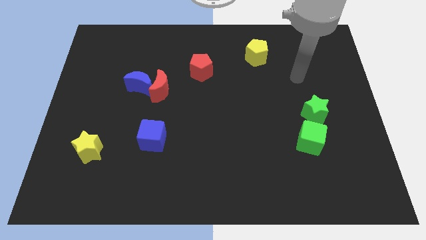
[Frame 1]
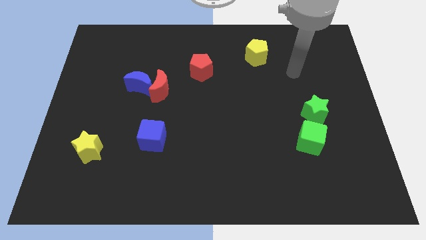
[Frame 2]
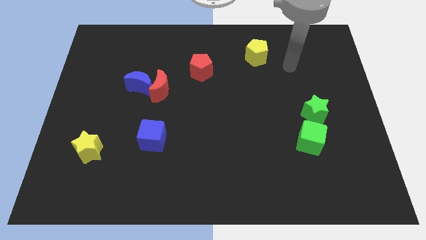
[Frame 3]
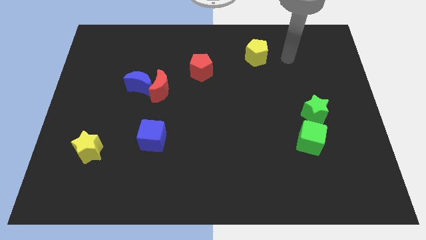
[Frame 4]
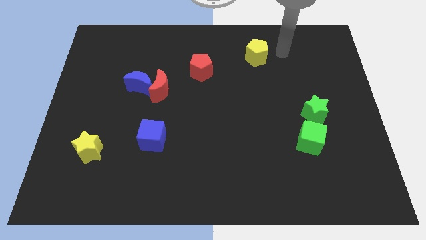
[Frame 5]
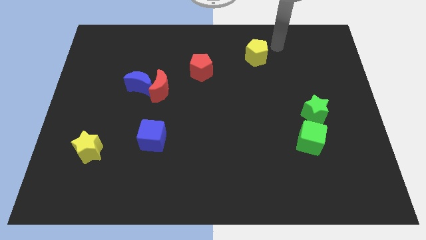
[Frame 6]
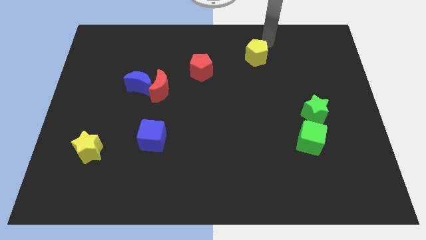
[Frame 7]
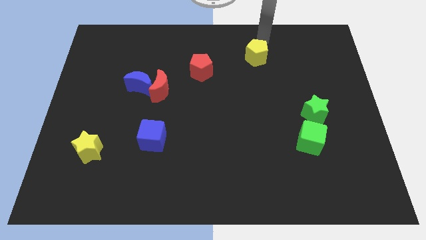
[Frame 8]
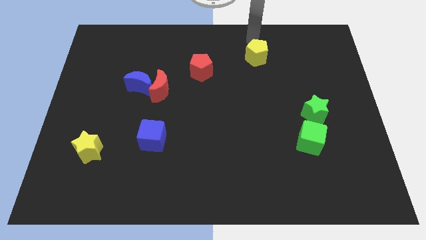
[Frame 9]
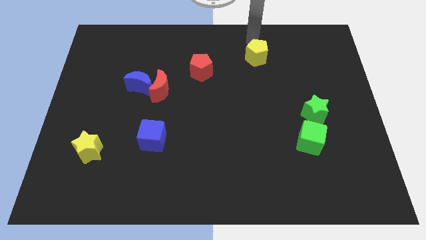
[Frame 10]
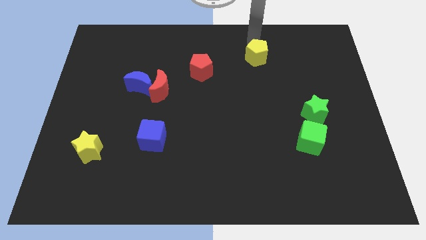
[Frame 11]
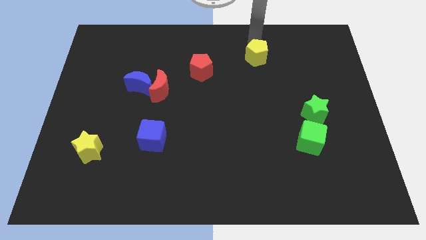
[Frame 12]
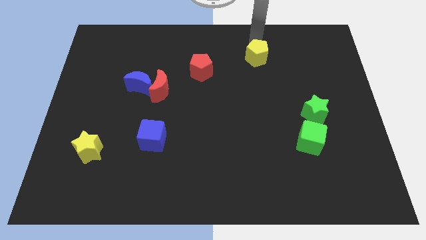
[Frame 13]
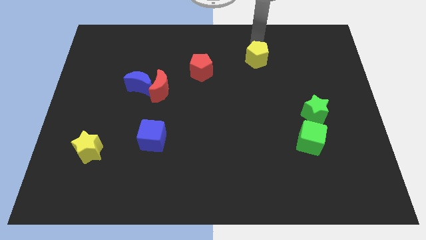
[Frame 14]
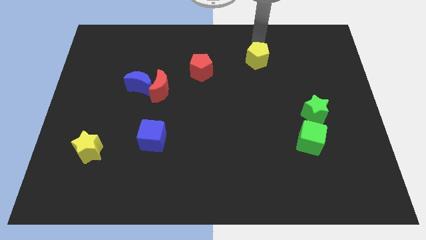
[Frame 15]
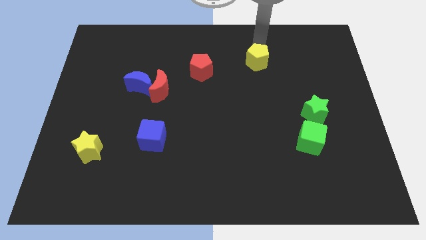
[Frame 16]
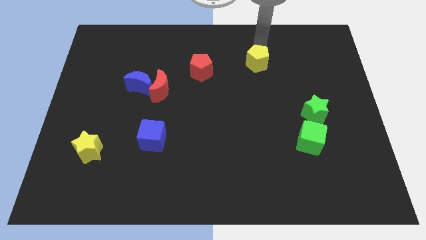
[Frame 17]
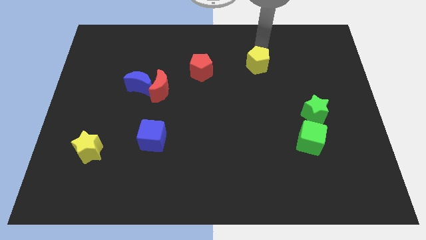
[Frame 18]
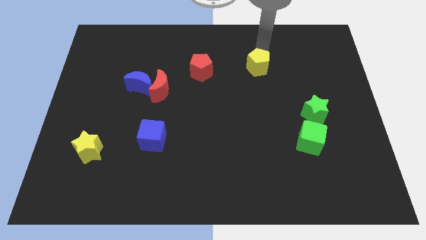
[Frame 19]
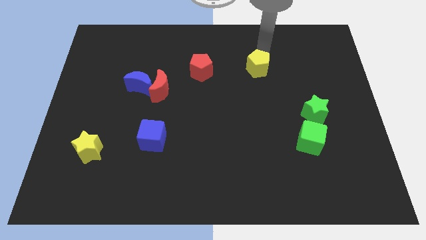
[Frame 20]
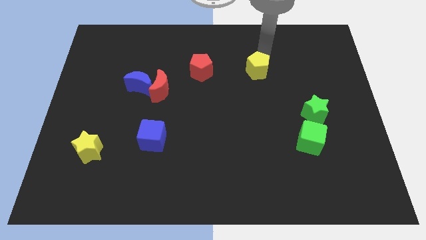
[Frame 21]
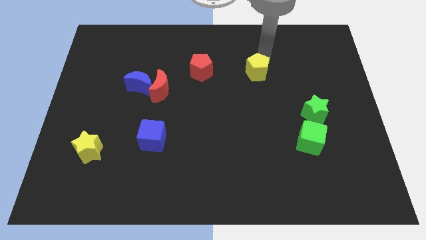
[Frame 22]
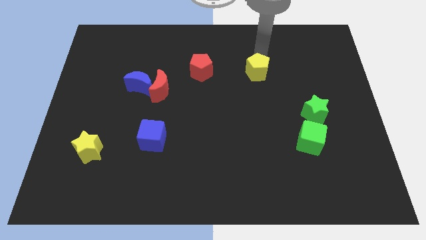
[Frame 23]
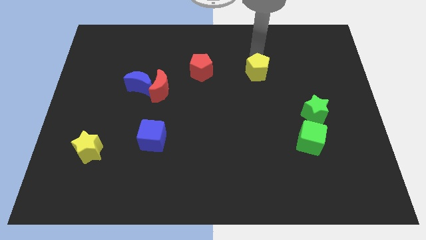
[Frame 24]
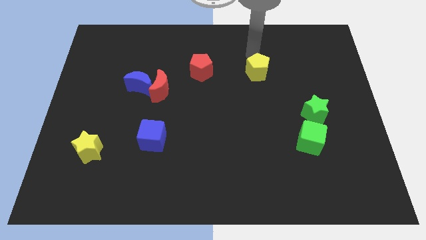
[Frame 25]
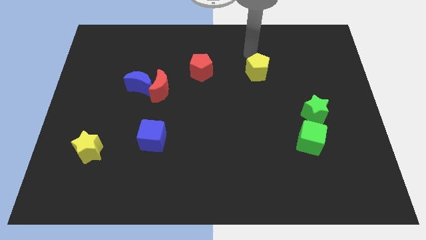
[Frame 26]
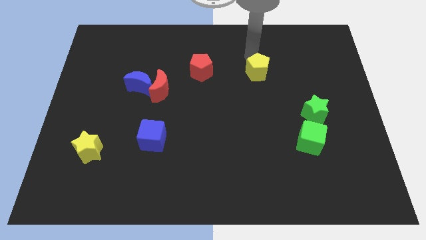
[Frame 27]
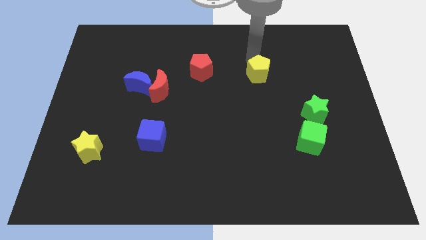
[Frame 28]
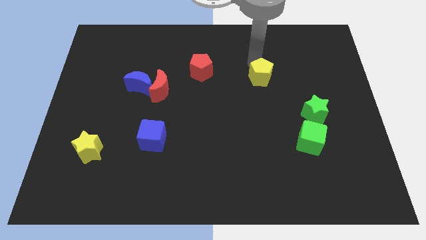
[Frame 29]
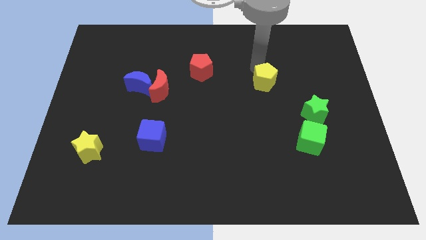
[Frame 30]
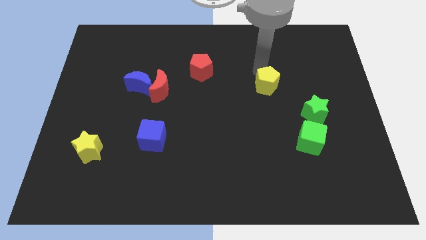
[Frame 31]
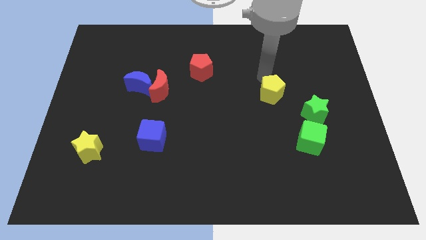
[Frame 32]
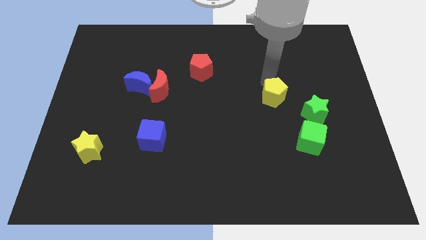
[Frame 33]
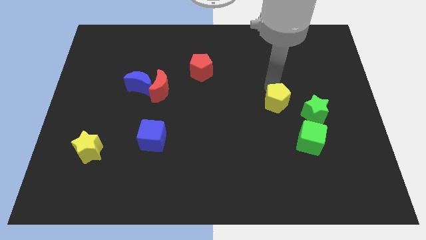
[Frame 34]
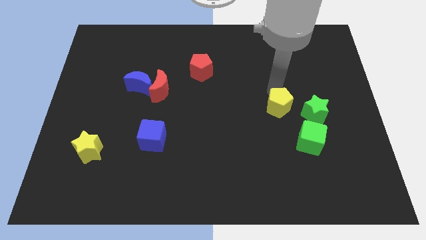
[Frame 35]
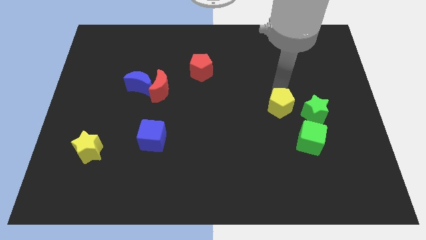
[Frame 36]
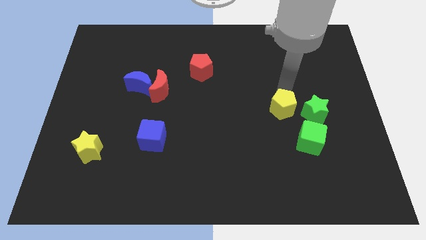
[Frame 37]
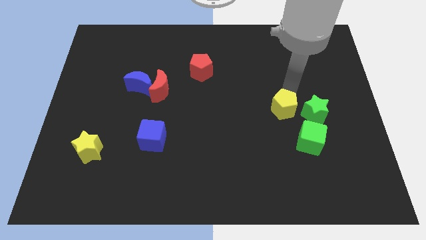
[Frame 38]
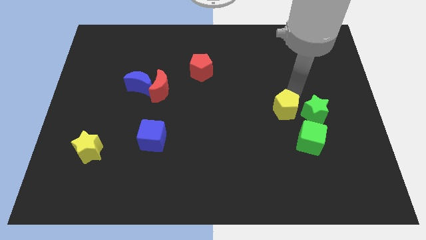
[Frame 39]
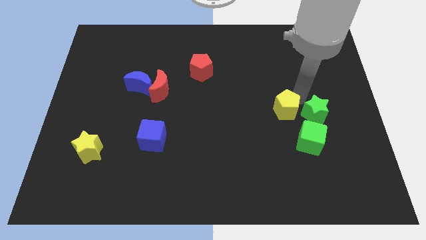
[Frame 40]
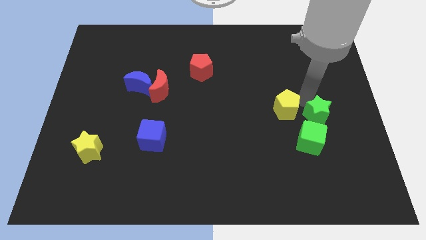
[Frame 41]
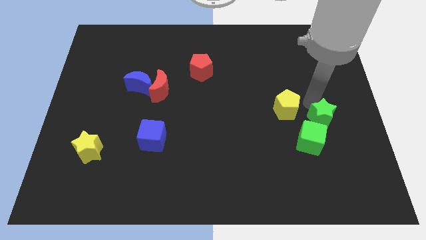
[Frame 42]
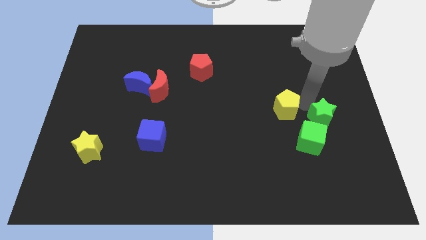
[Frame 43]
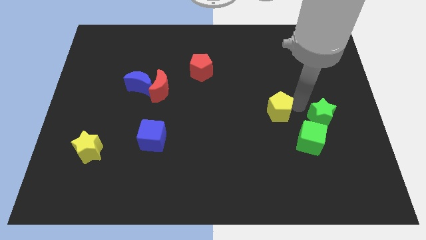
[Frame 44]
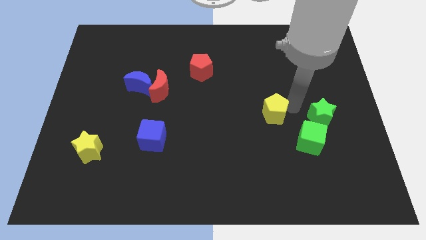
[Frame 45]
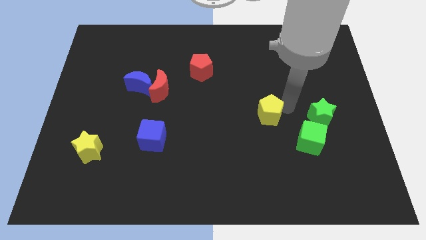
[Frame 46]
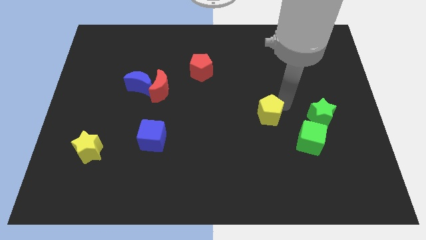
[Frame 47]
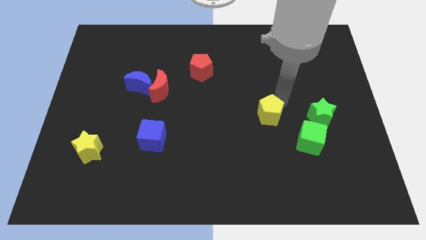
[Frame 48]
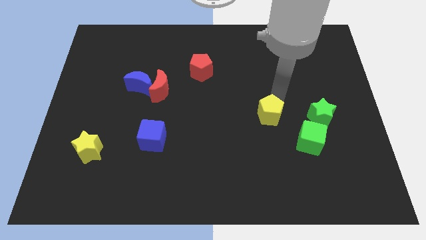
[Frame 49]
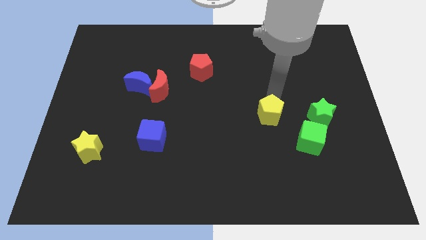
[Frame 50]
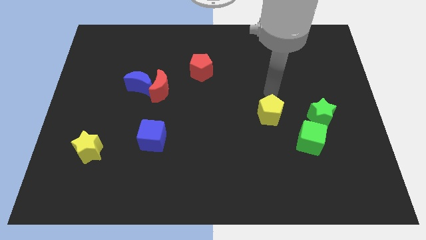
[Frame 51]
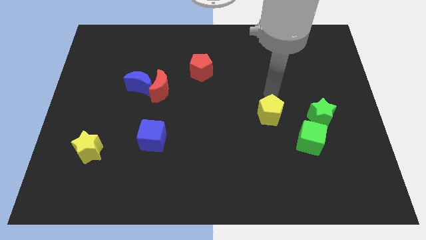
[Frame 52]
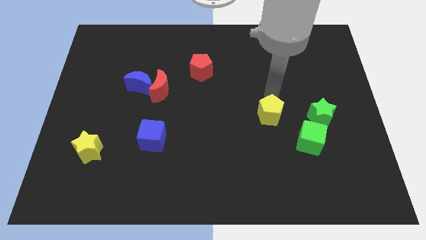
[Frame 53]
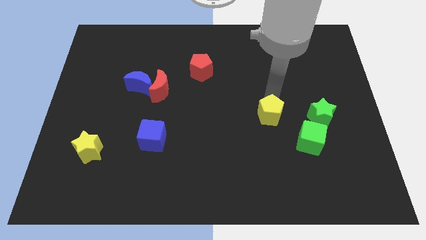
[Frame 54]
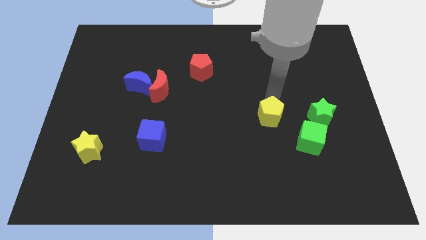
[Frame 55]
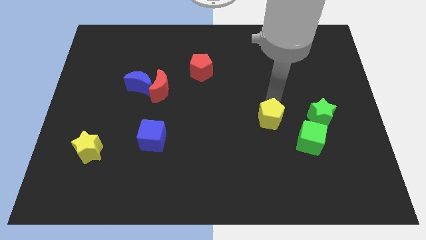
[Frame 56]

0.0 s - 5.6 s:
slide the yellow pentagon down

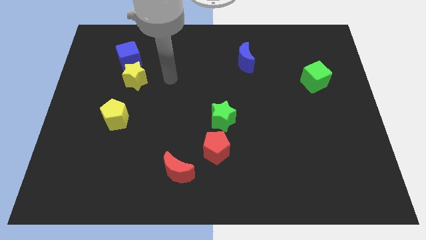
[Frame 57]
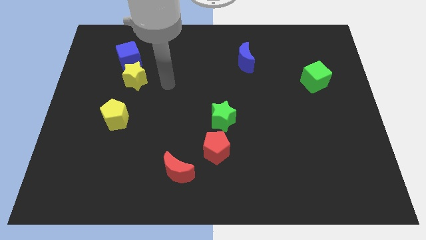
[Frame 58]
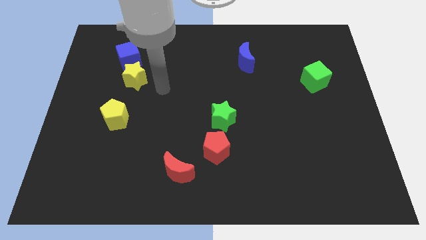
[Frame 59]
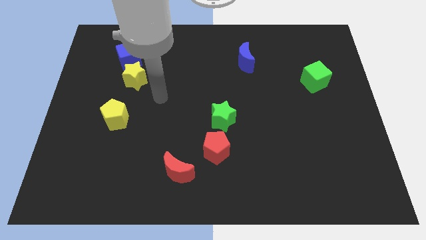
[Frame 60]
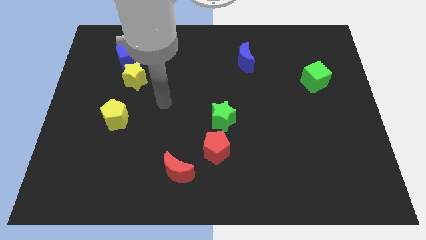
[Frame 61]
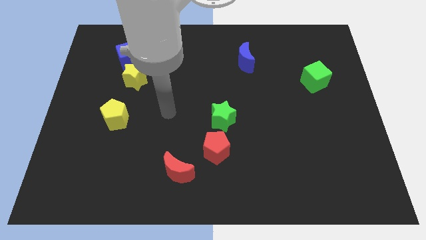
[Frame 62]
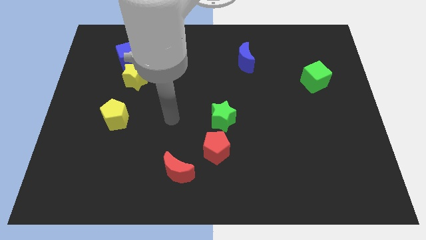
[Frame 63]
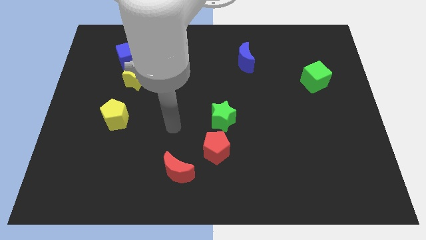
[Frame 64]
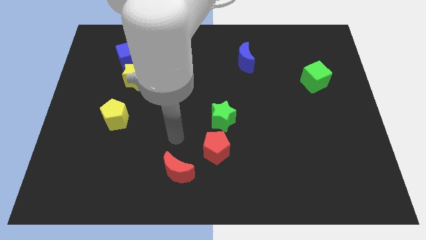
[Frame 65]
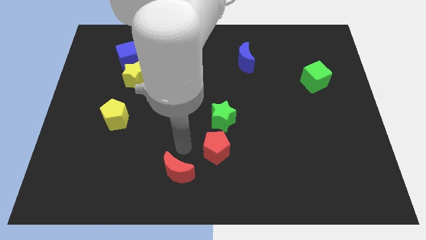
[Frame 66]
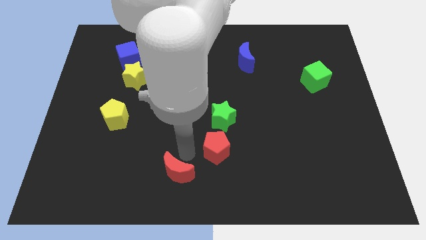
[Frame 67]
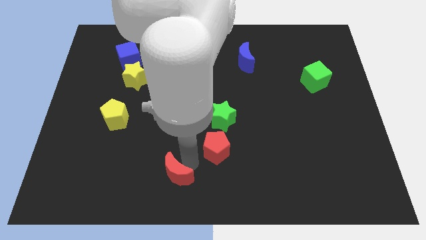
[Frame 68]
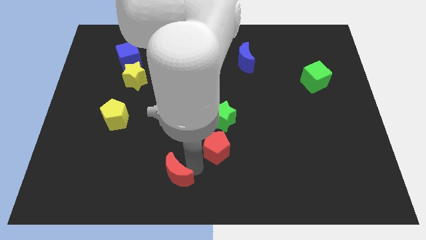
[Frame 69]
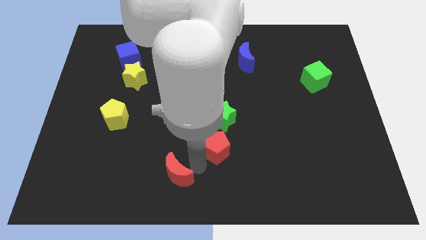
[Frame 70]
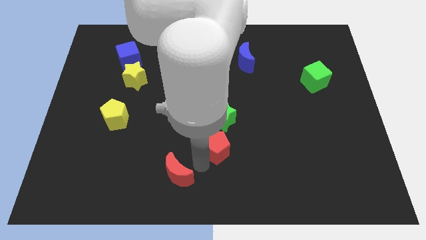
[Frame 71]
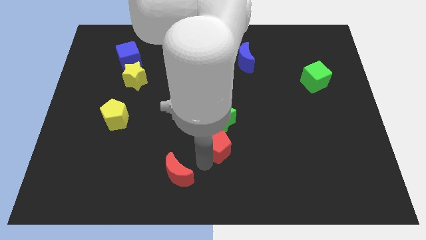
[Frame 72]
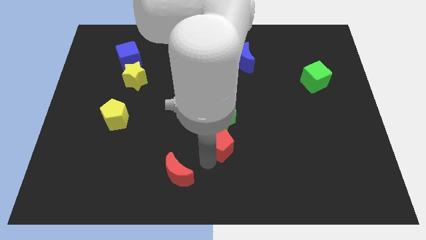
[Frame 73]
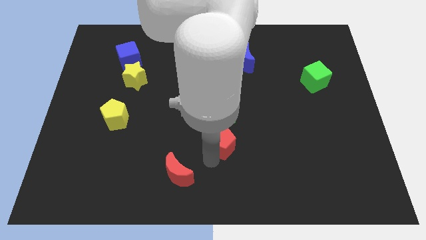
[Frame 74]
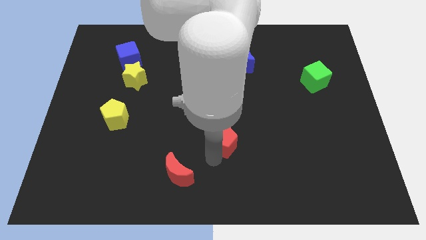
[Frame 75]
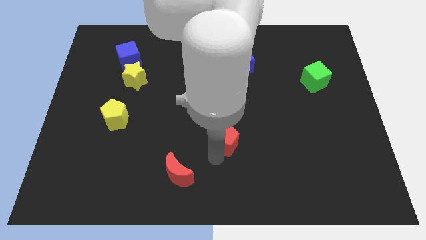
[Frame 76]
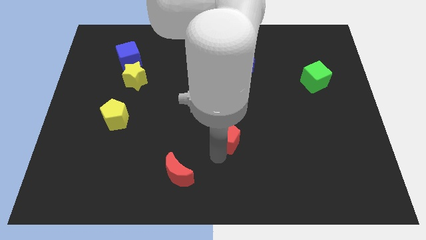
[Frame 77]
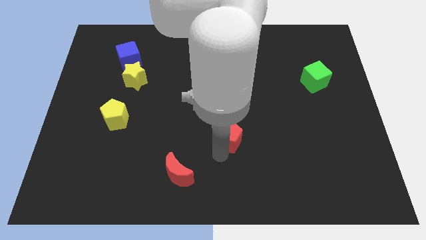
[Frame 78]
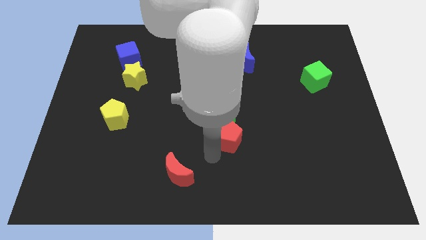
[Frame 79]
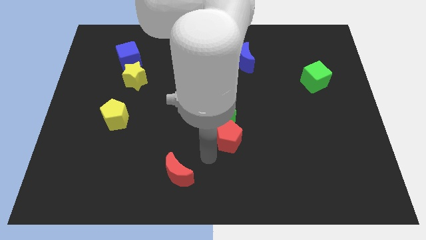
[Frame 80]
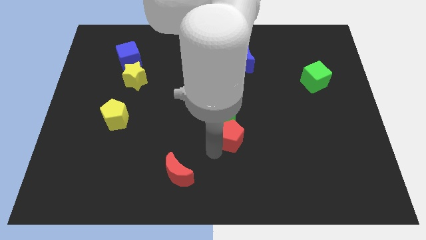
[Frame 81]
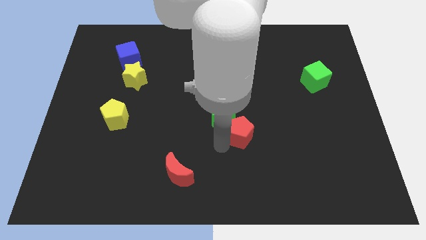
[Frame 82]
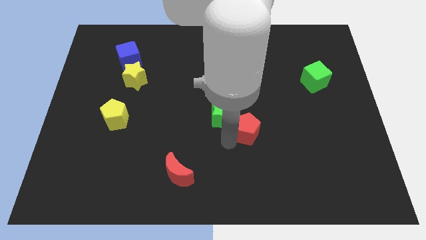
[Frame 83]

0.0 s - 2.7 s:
push the red pentagon a bit upwards and right diagonally
